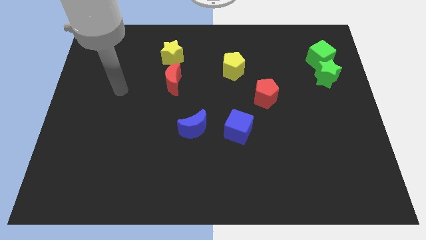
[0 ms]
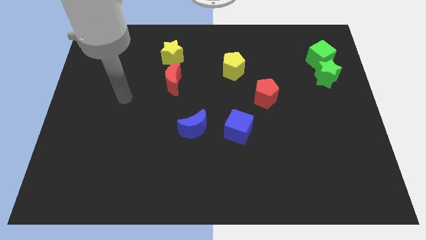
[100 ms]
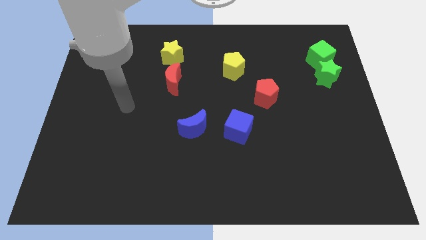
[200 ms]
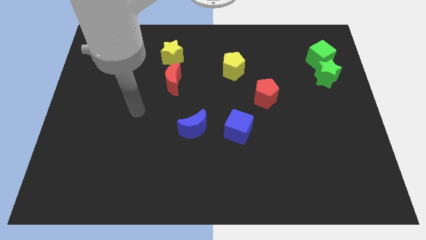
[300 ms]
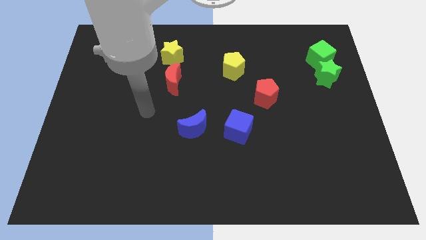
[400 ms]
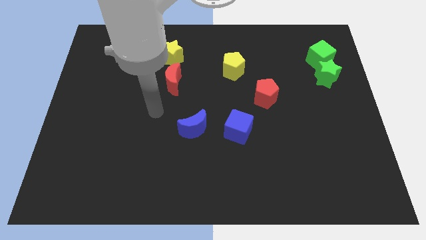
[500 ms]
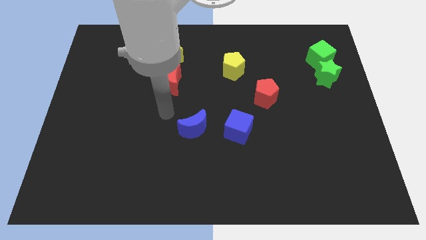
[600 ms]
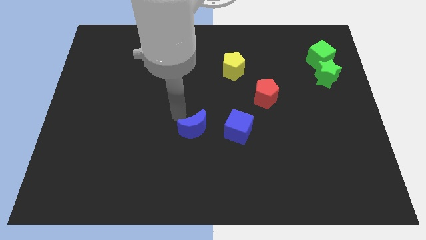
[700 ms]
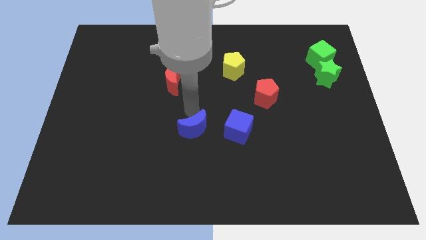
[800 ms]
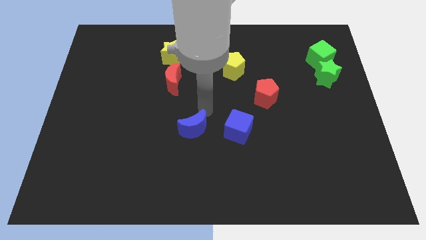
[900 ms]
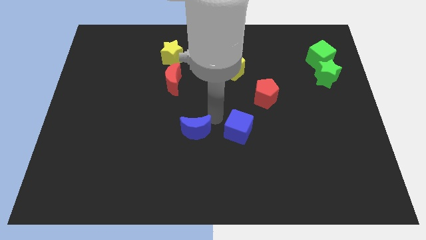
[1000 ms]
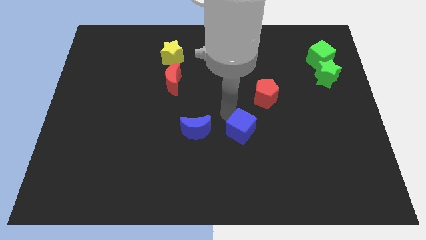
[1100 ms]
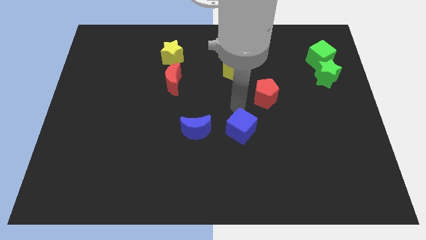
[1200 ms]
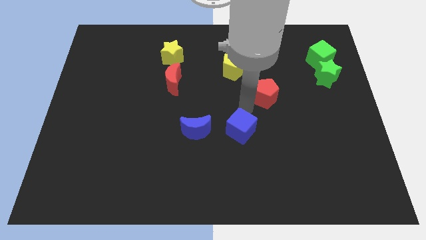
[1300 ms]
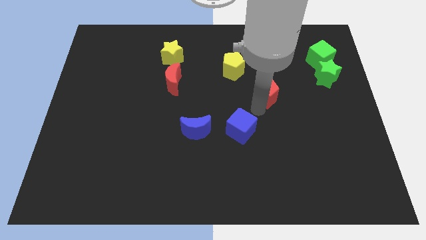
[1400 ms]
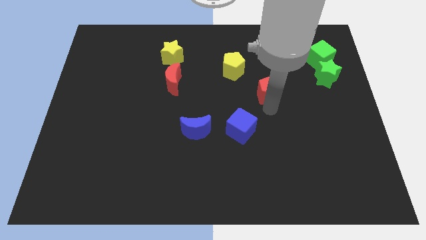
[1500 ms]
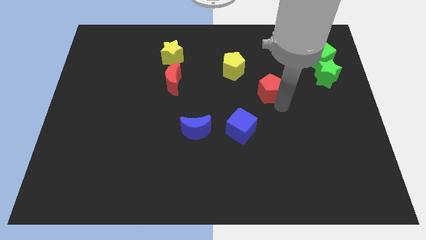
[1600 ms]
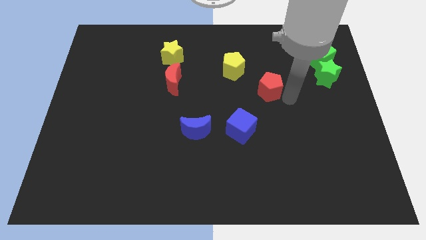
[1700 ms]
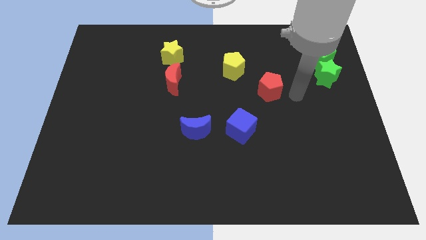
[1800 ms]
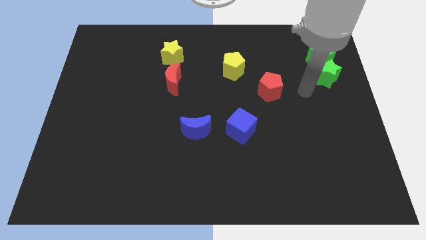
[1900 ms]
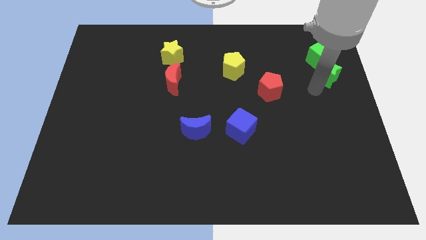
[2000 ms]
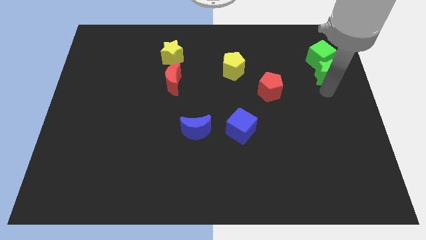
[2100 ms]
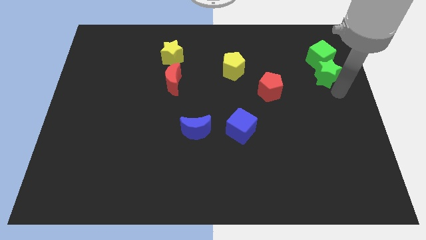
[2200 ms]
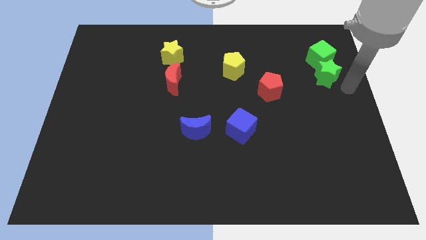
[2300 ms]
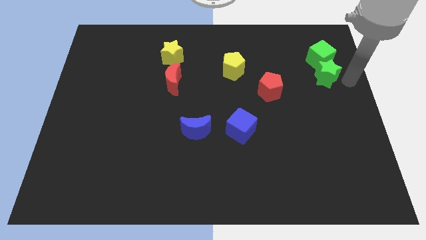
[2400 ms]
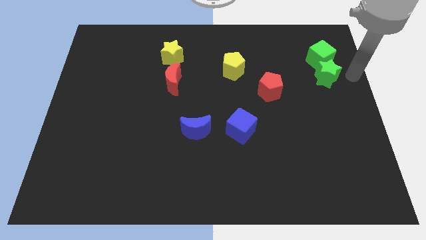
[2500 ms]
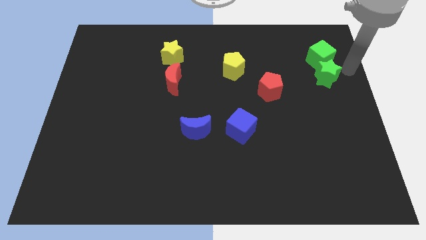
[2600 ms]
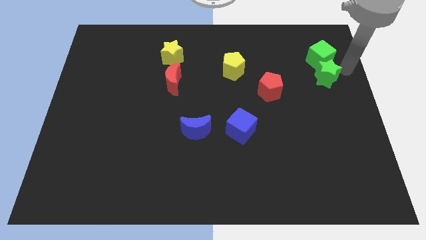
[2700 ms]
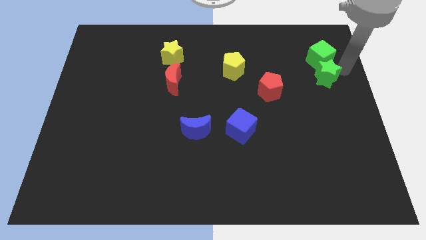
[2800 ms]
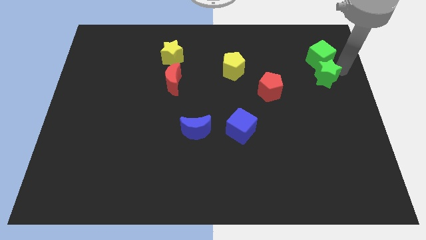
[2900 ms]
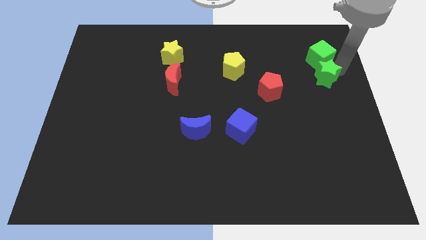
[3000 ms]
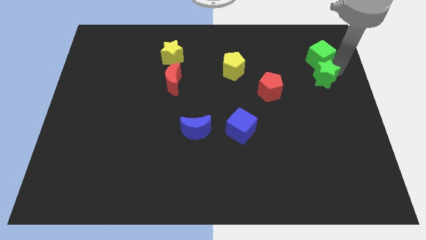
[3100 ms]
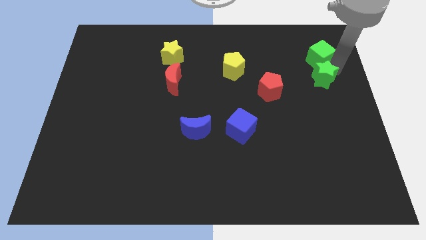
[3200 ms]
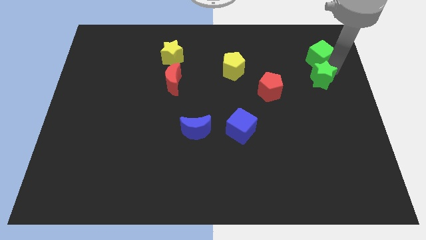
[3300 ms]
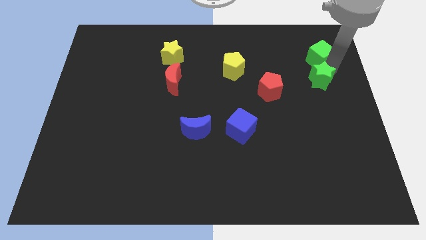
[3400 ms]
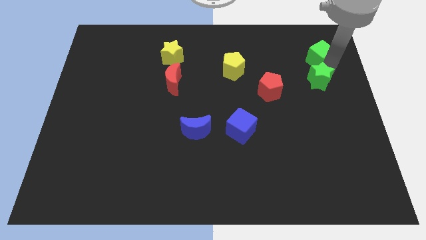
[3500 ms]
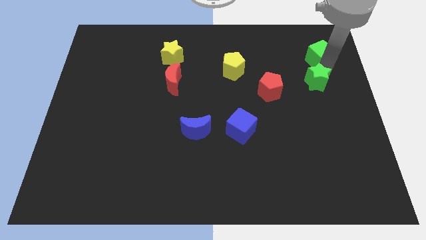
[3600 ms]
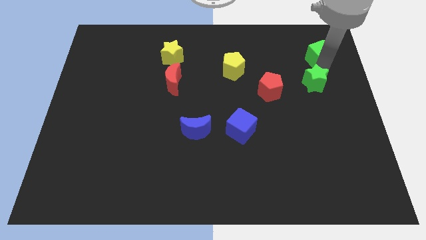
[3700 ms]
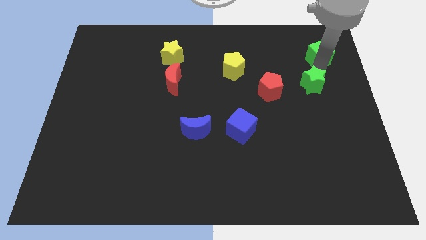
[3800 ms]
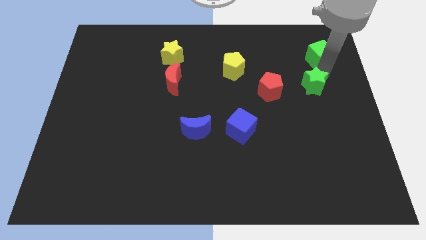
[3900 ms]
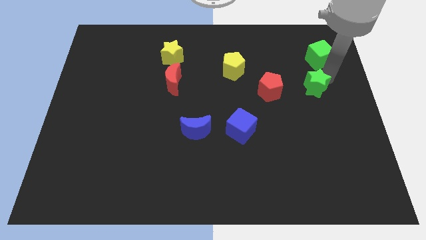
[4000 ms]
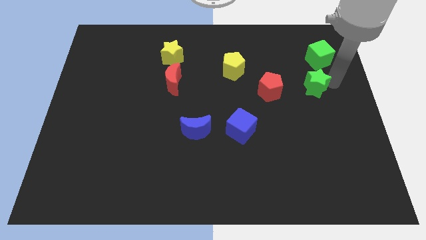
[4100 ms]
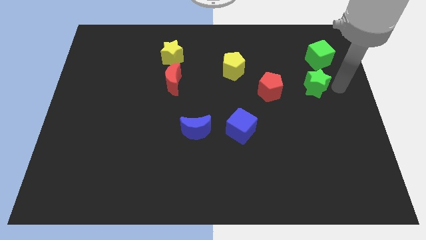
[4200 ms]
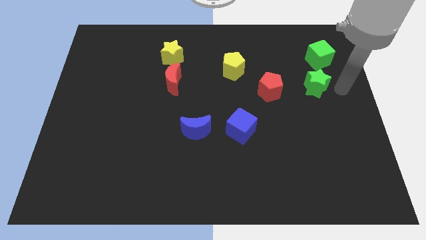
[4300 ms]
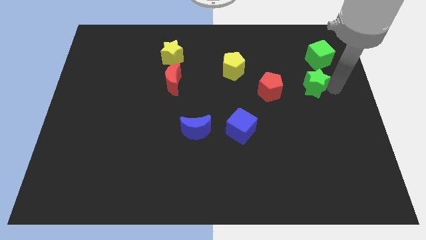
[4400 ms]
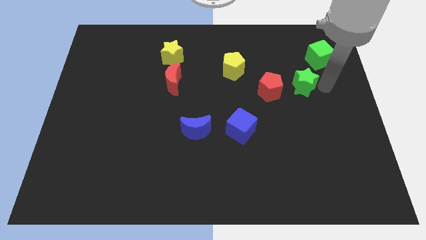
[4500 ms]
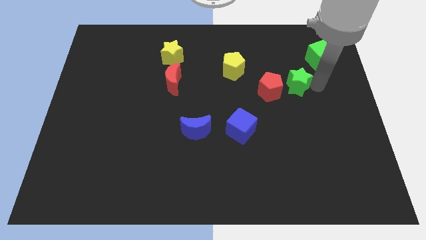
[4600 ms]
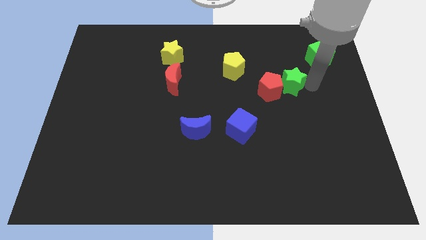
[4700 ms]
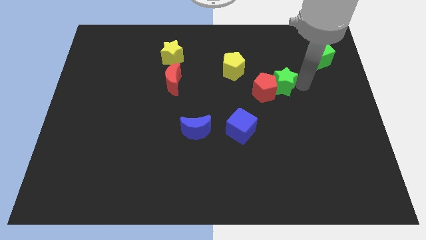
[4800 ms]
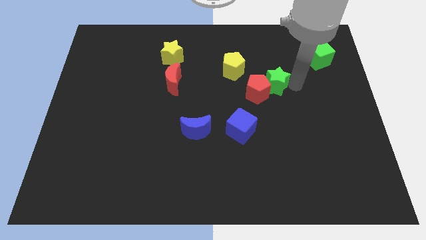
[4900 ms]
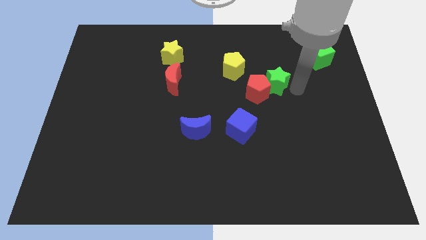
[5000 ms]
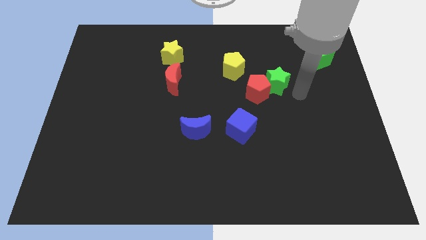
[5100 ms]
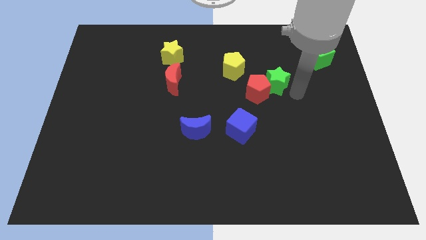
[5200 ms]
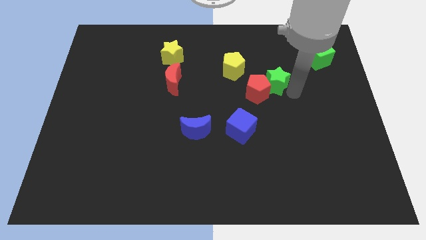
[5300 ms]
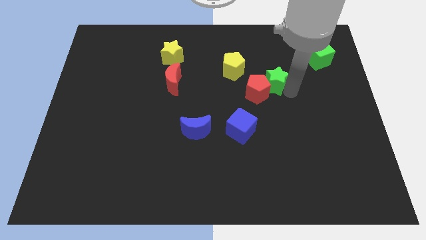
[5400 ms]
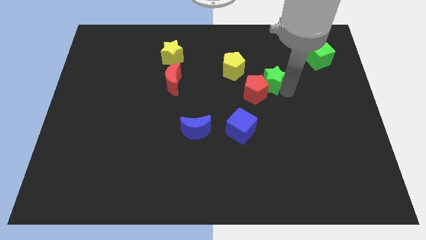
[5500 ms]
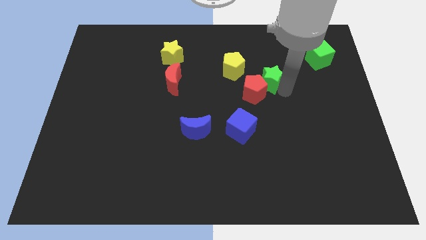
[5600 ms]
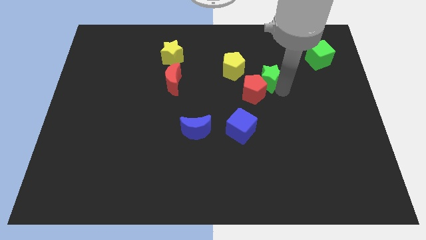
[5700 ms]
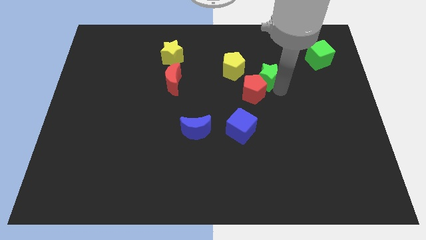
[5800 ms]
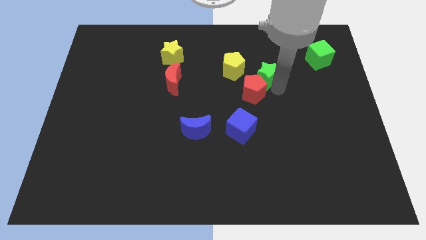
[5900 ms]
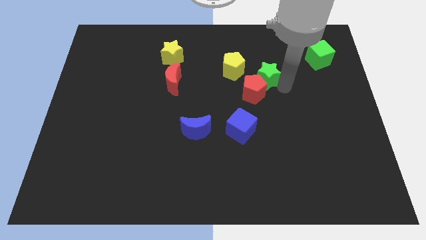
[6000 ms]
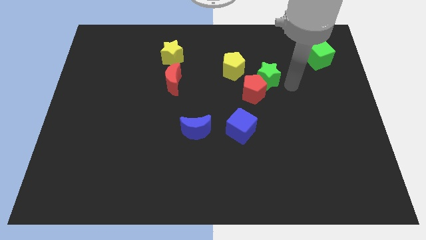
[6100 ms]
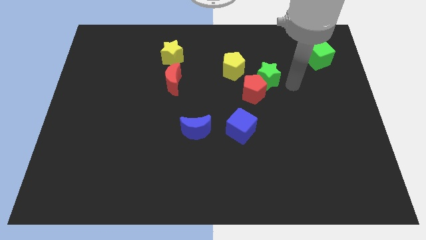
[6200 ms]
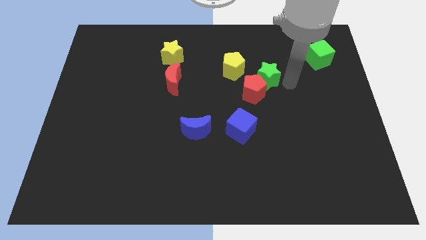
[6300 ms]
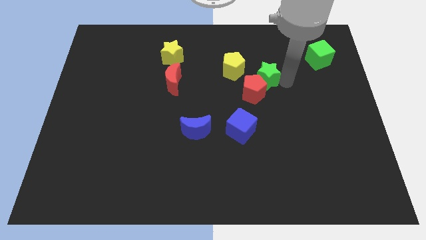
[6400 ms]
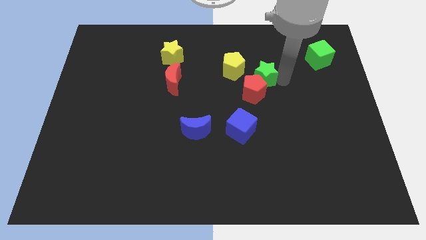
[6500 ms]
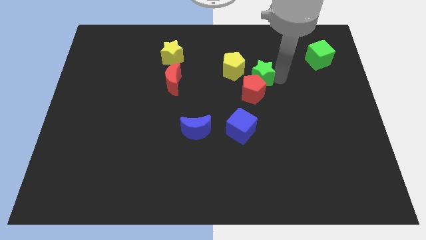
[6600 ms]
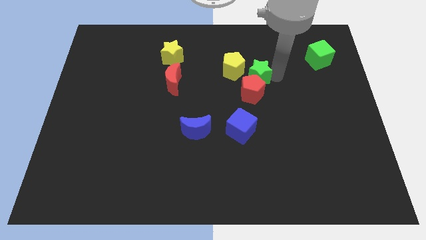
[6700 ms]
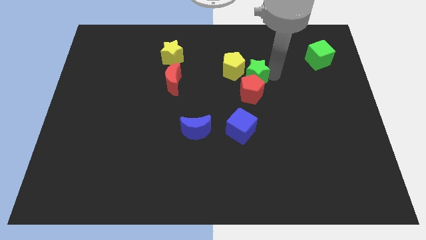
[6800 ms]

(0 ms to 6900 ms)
push the green star close to the yellow pentagon
